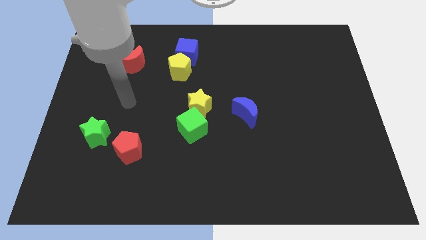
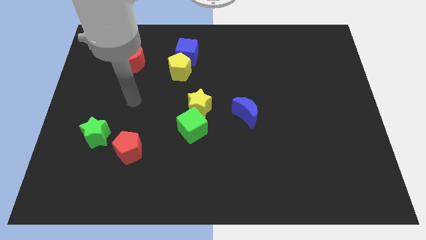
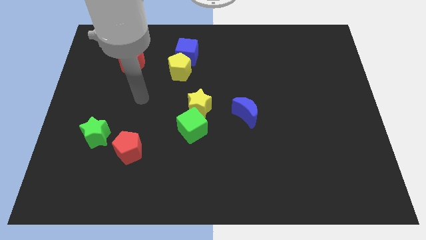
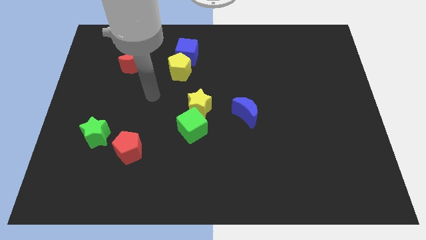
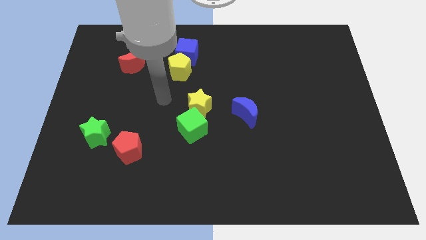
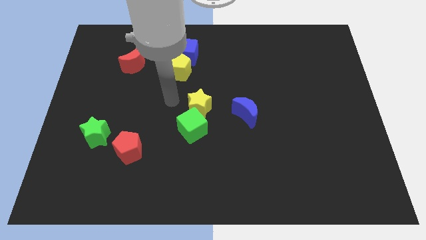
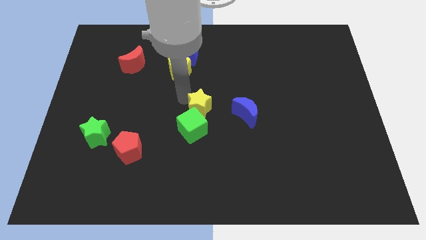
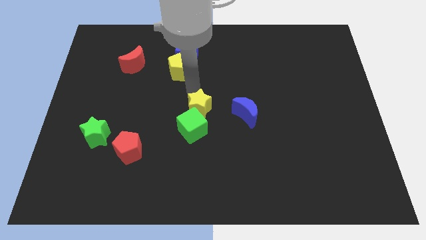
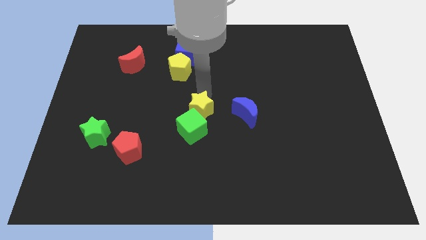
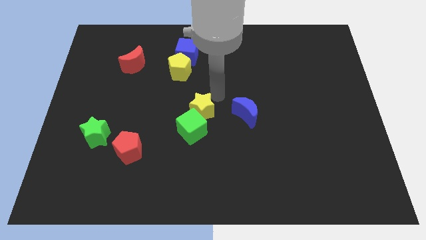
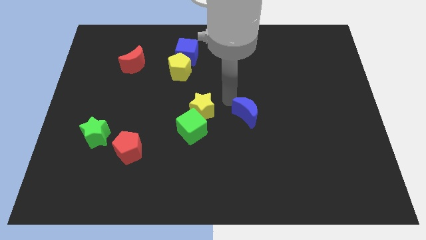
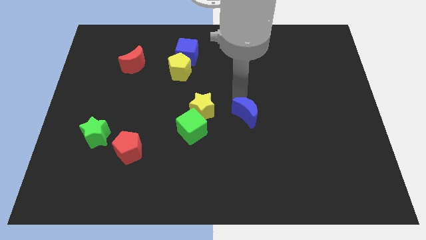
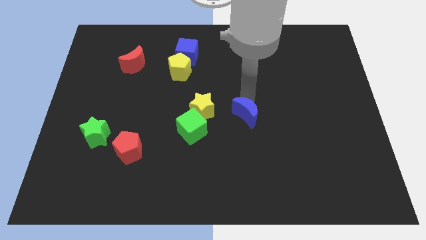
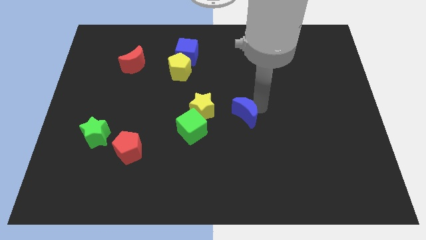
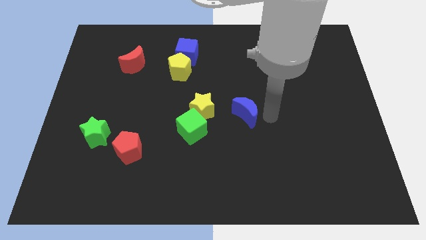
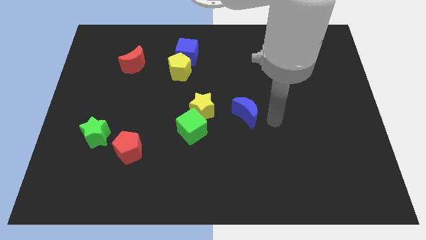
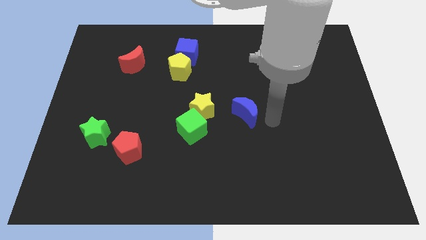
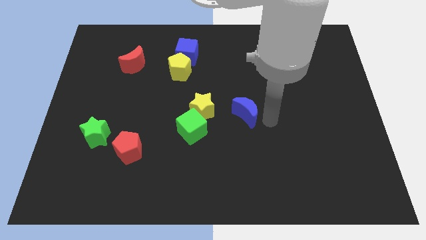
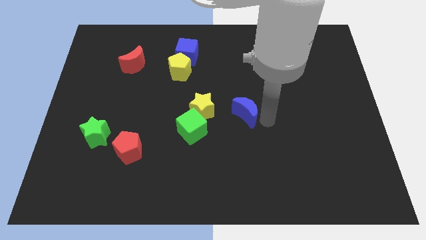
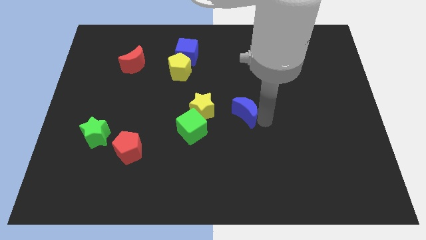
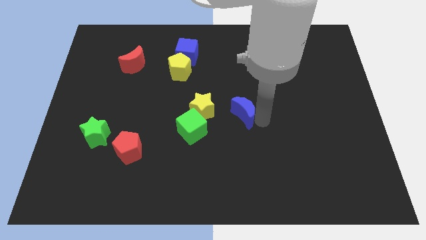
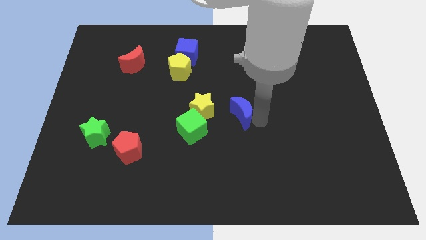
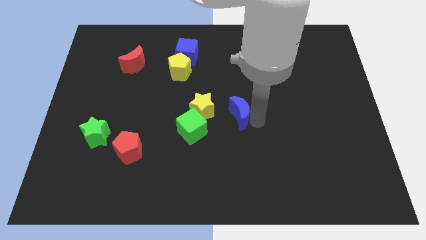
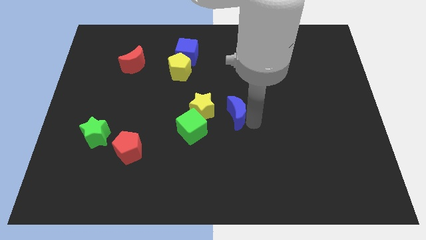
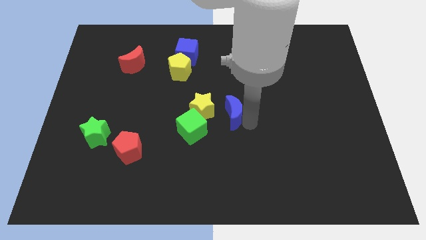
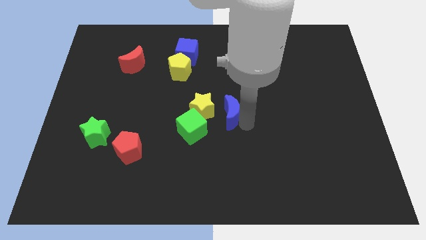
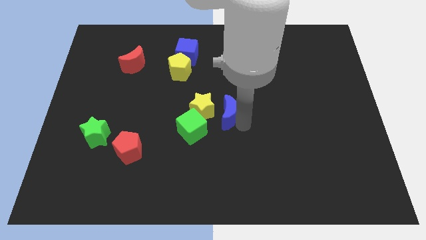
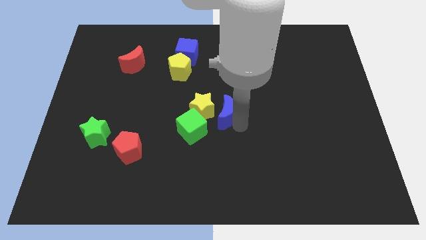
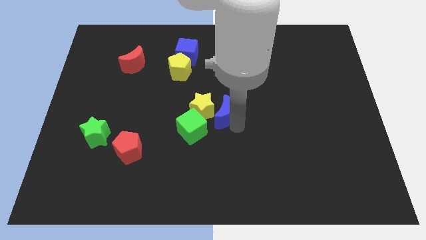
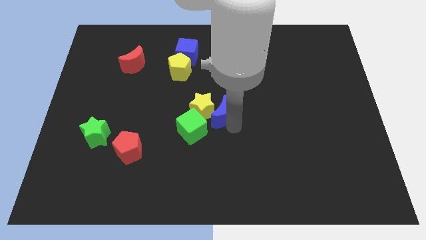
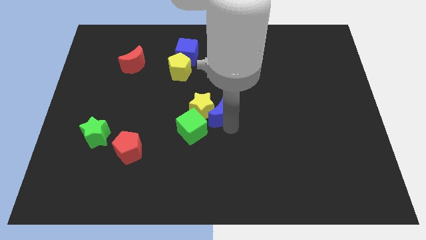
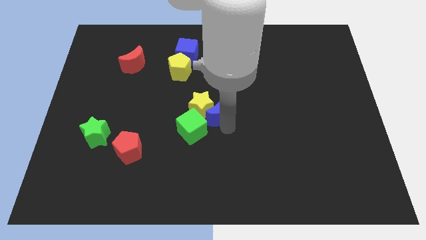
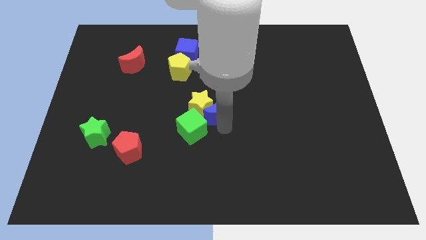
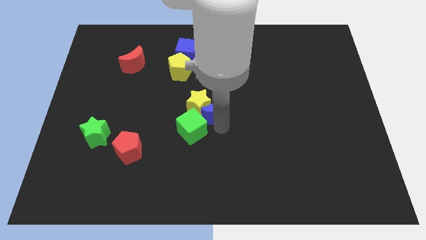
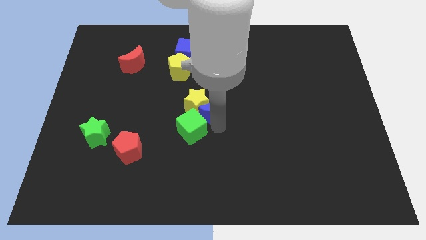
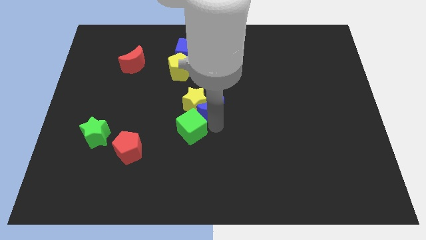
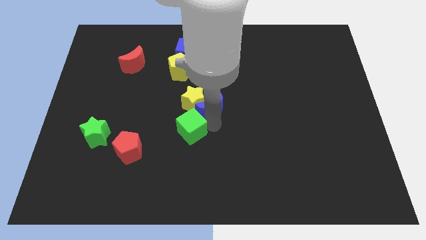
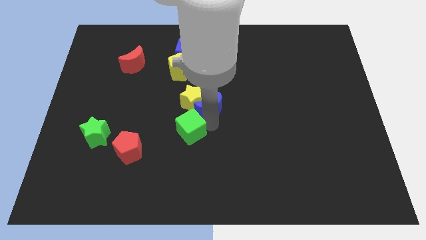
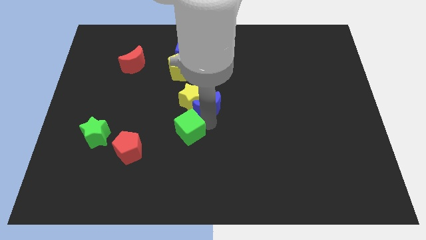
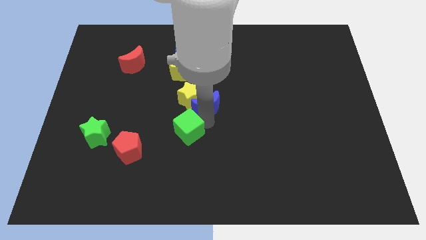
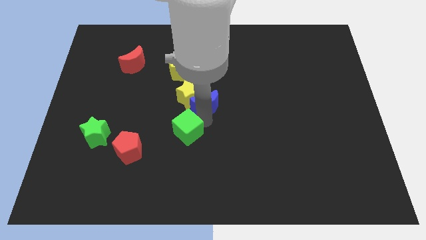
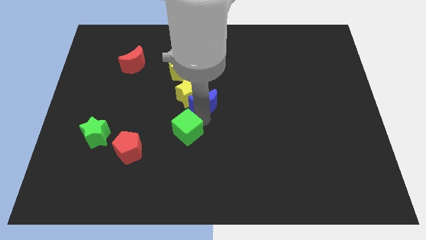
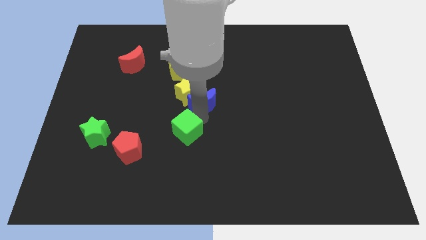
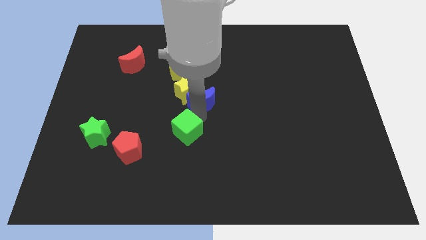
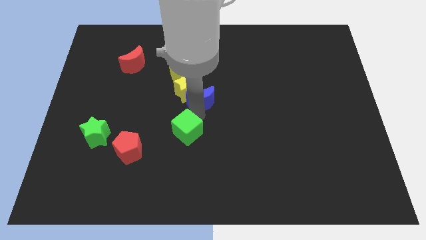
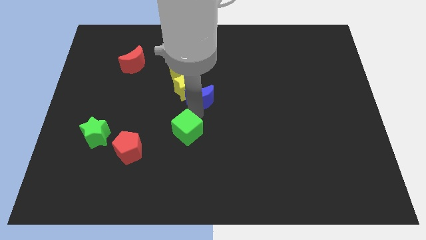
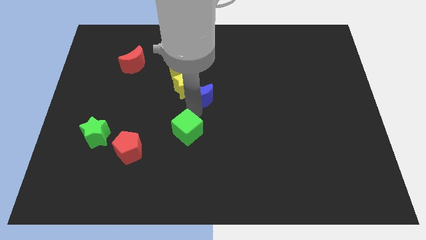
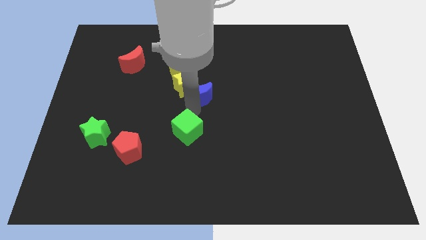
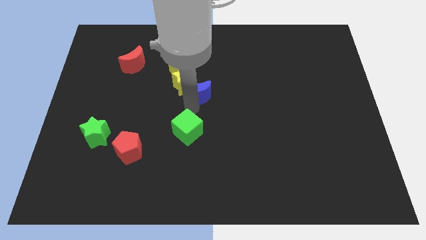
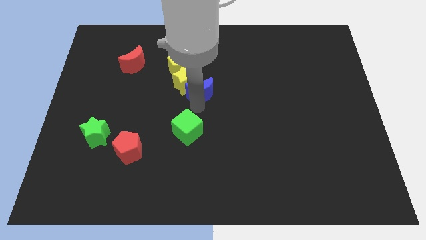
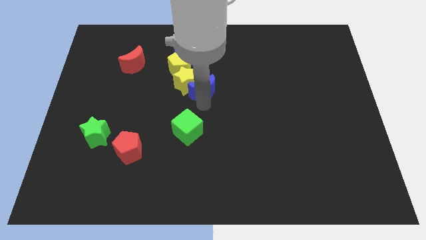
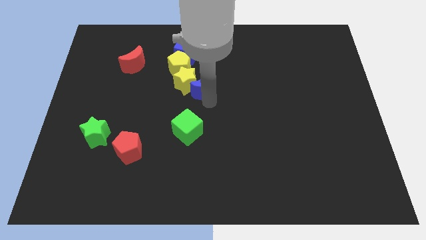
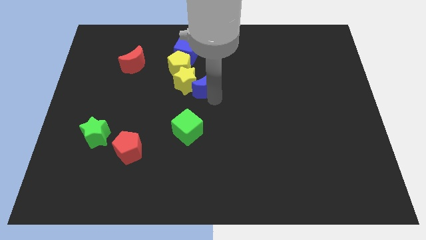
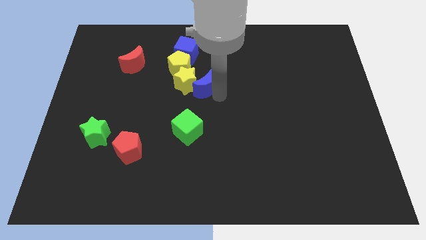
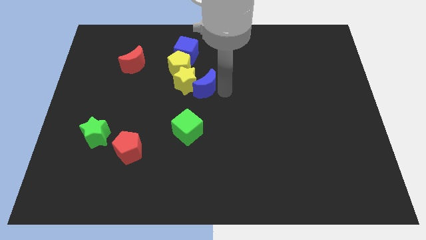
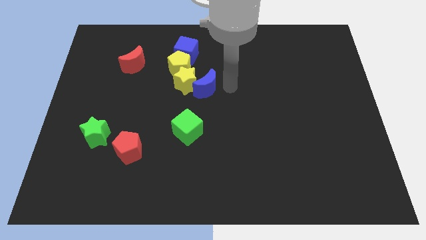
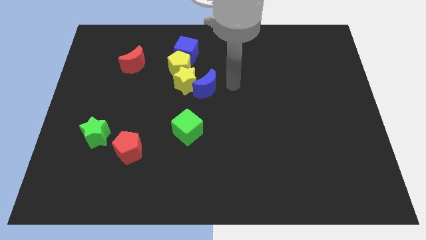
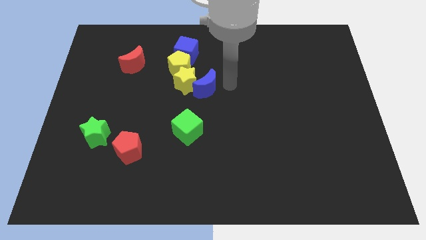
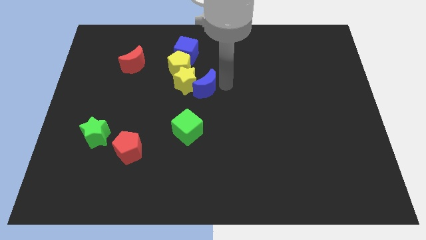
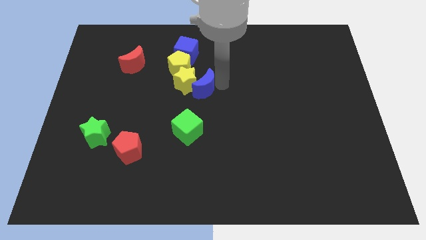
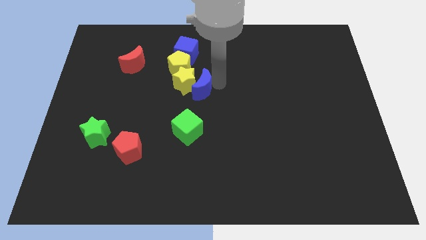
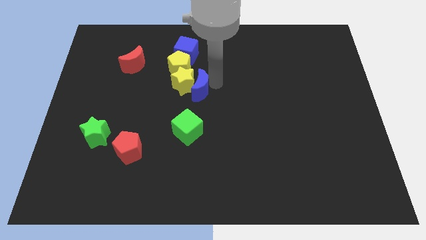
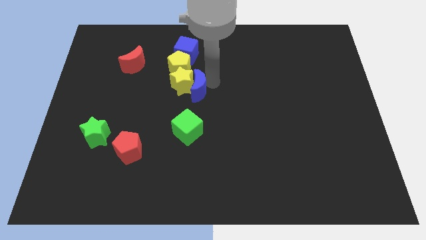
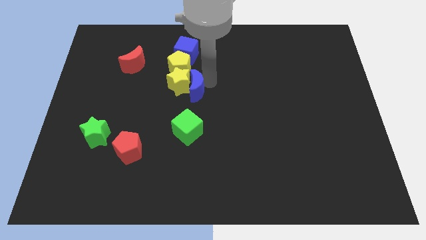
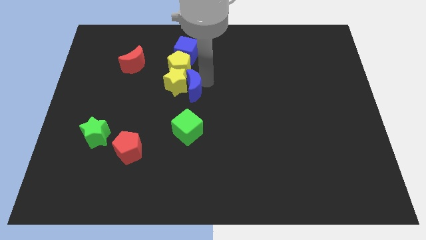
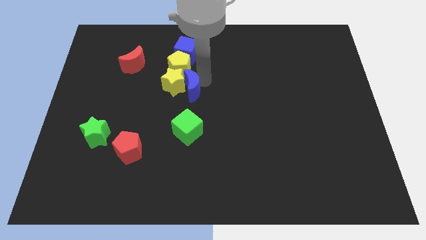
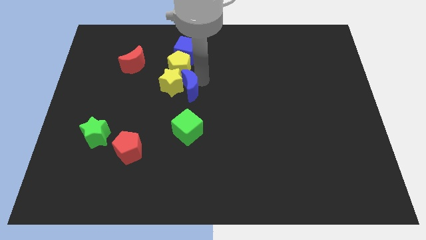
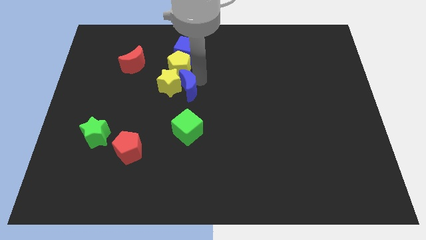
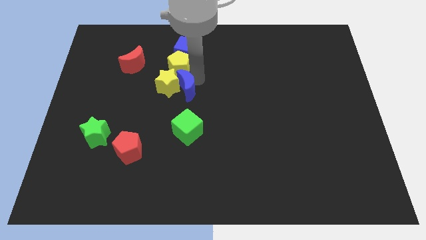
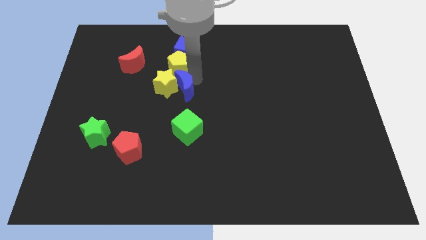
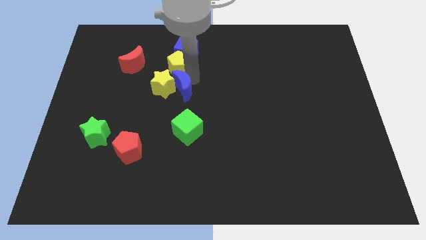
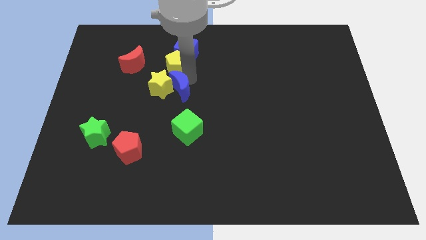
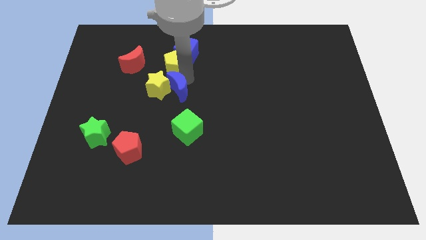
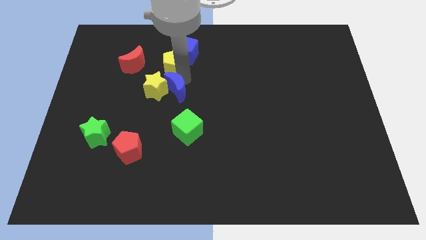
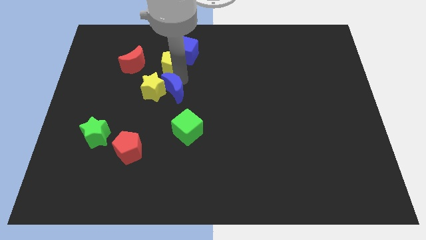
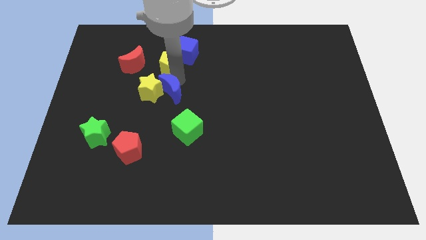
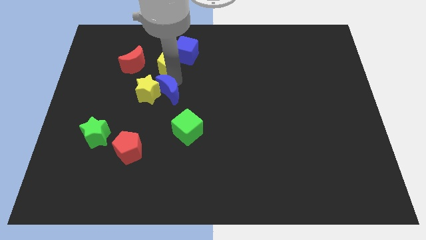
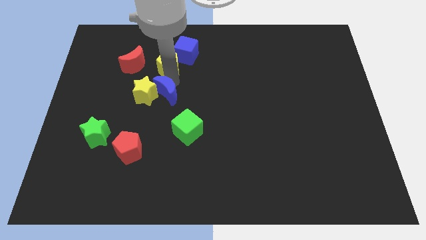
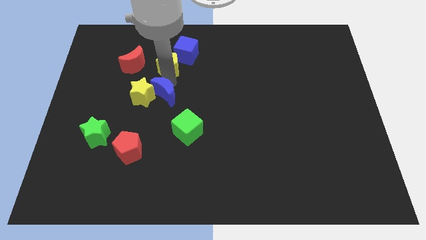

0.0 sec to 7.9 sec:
move the blue moon to the top left of the green cube
